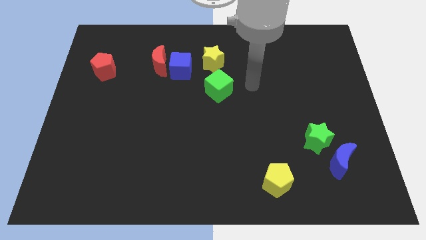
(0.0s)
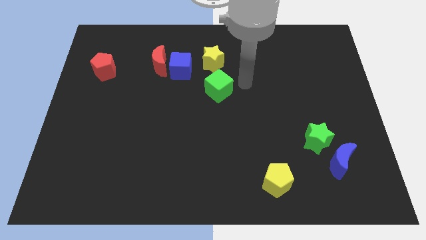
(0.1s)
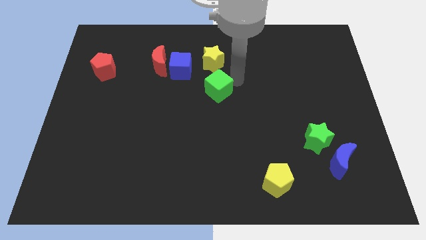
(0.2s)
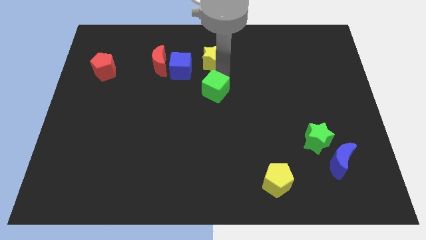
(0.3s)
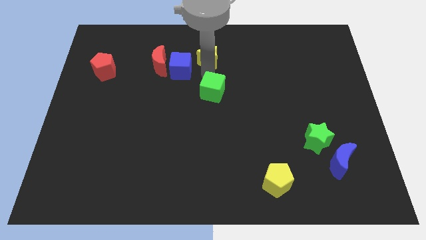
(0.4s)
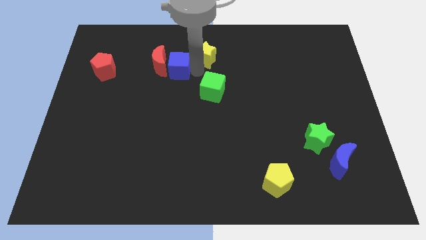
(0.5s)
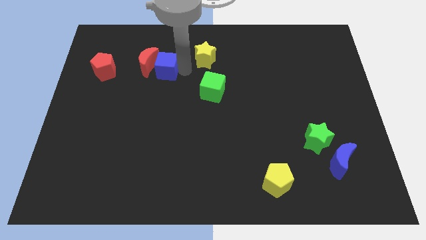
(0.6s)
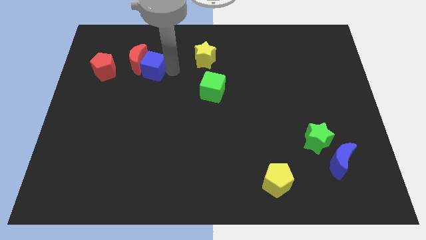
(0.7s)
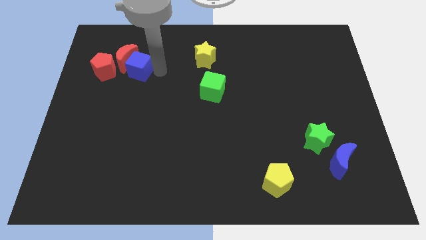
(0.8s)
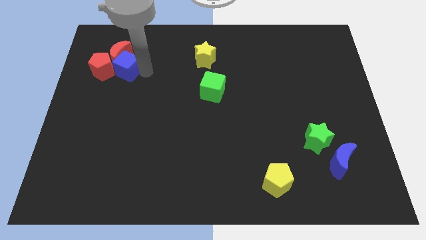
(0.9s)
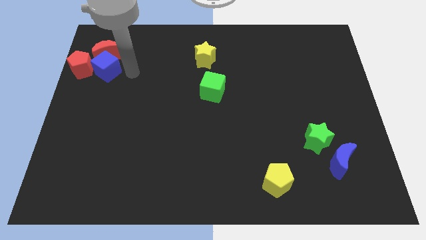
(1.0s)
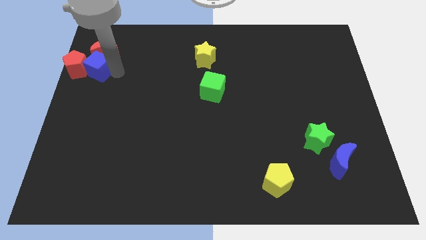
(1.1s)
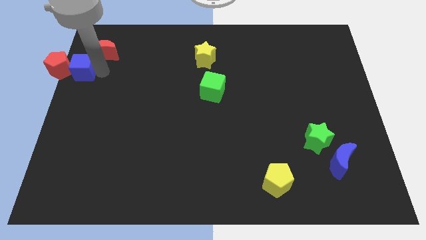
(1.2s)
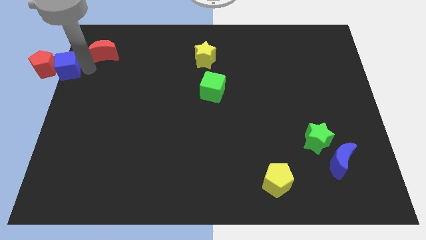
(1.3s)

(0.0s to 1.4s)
move the red moon away from the blue cube

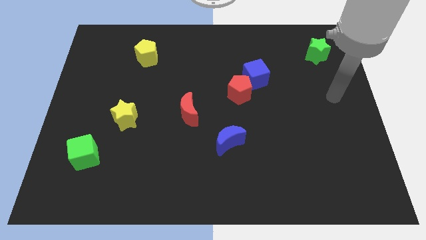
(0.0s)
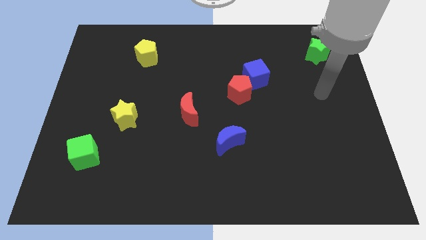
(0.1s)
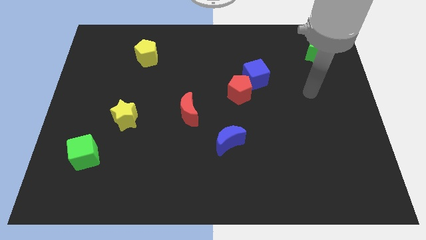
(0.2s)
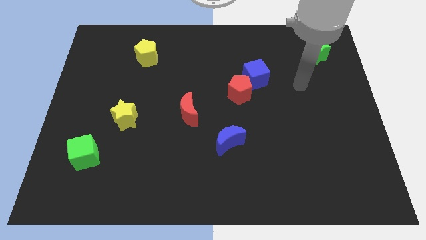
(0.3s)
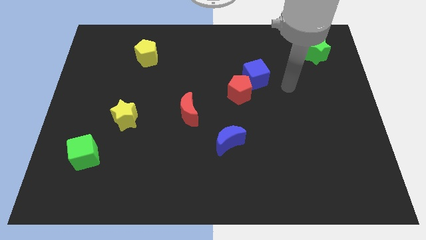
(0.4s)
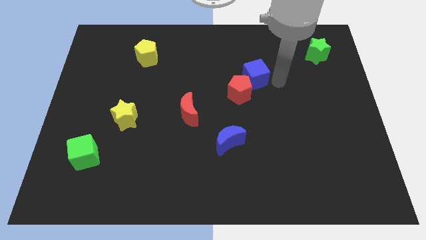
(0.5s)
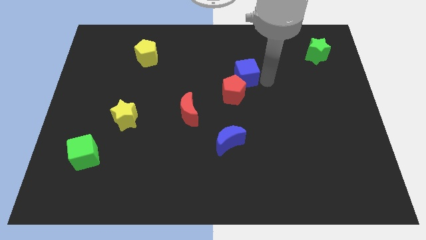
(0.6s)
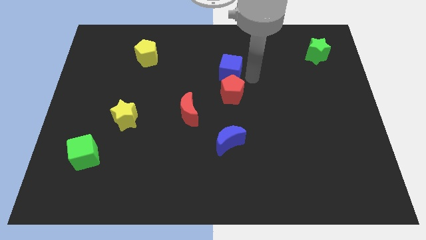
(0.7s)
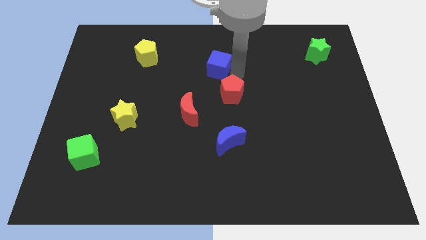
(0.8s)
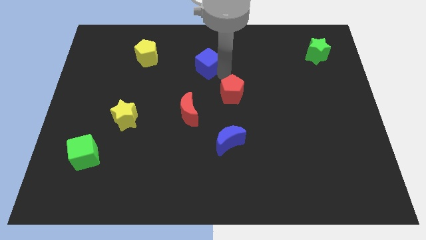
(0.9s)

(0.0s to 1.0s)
move the red pentagon away from the blue cube

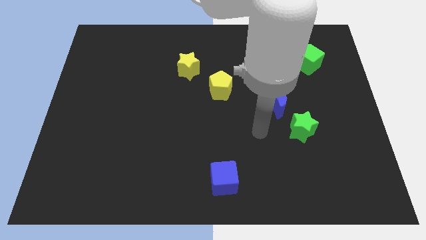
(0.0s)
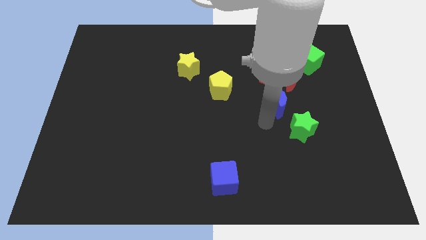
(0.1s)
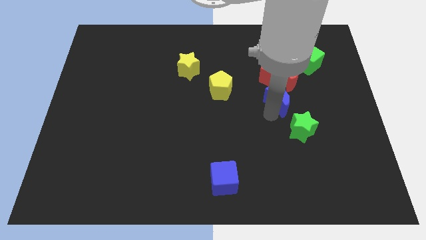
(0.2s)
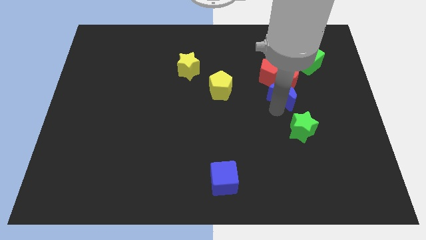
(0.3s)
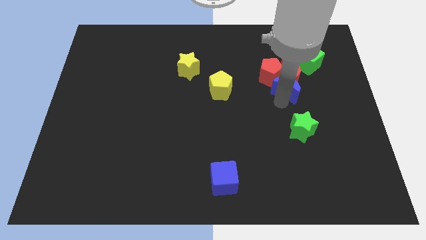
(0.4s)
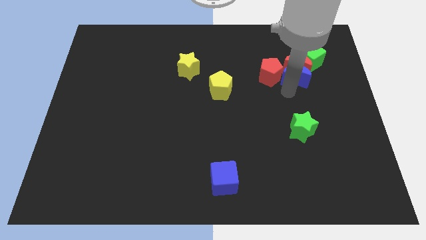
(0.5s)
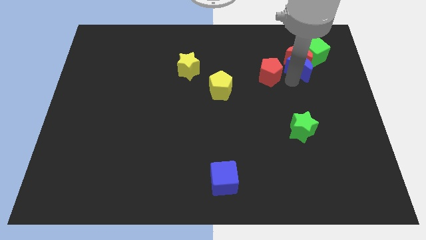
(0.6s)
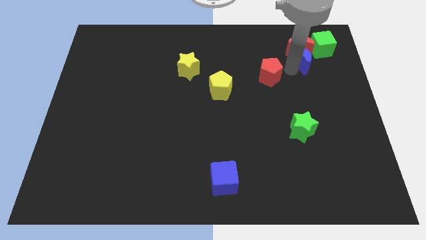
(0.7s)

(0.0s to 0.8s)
move the red pentagon away from the red moon and blue moon

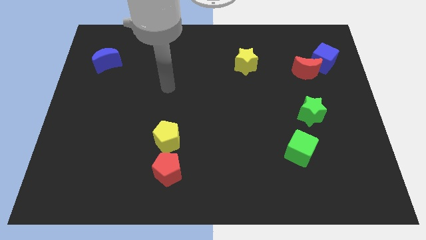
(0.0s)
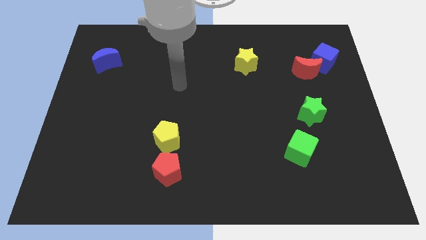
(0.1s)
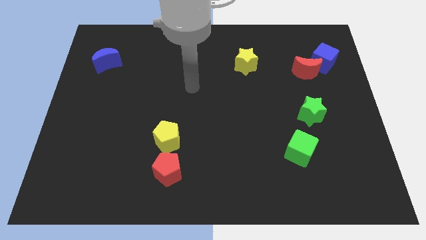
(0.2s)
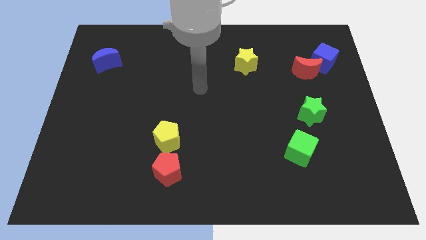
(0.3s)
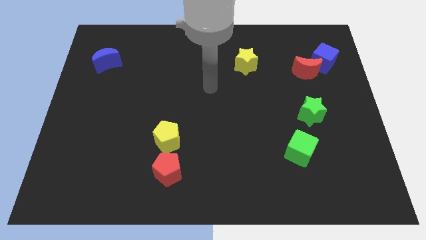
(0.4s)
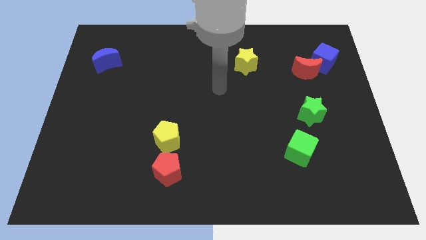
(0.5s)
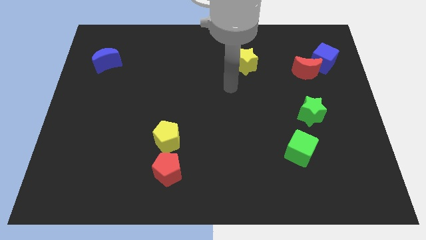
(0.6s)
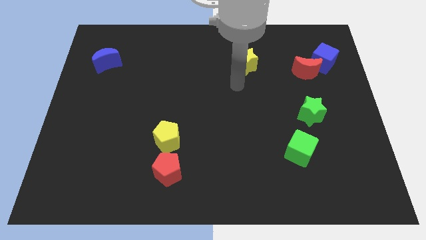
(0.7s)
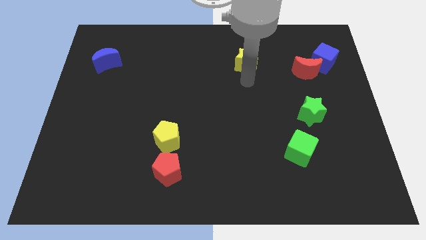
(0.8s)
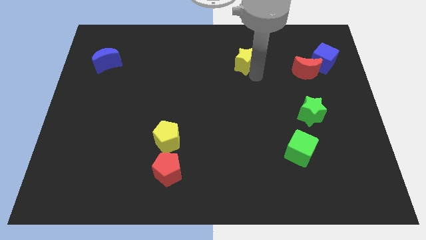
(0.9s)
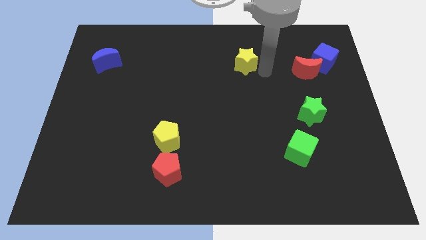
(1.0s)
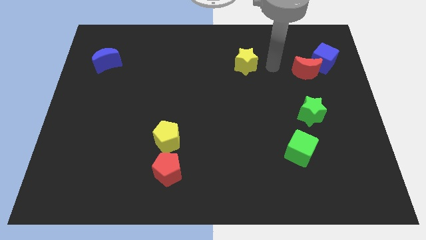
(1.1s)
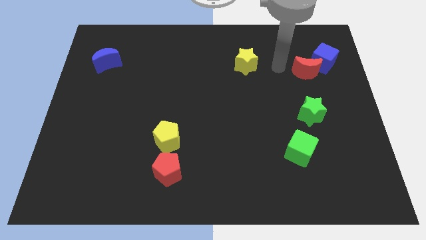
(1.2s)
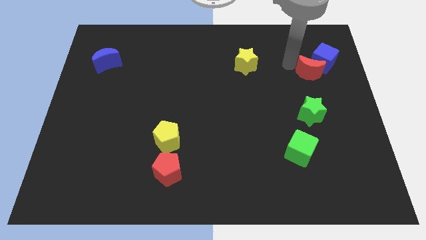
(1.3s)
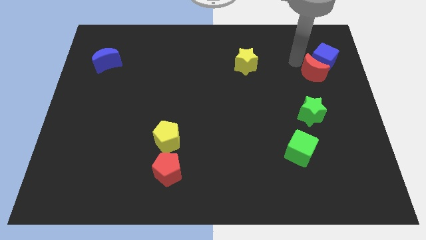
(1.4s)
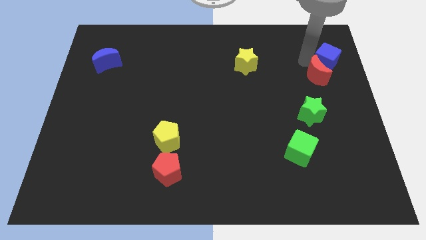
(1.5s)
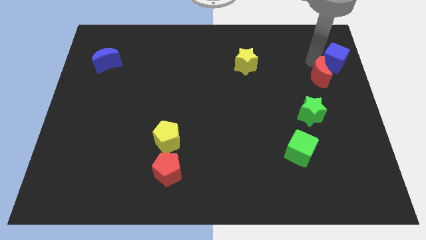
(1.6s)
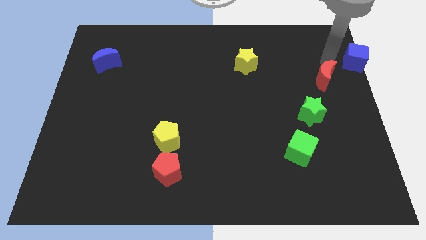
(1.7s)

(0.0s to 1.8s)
separate the red moon from the blue cube

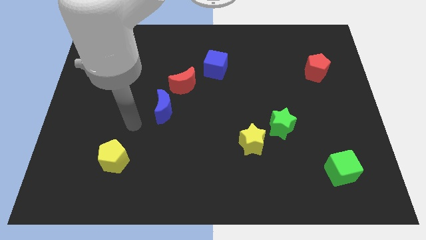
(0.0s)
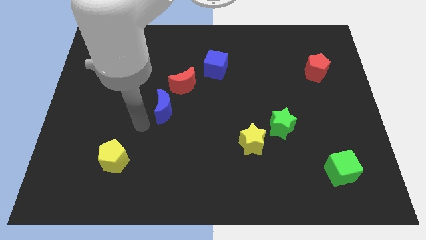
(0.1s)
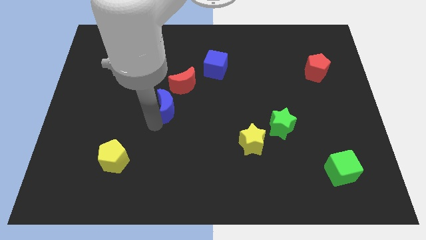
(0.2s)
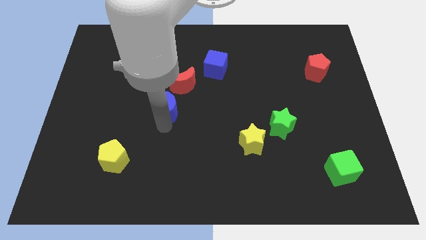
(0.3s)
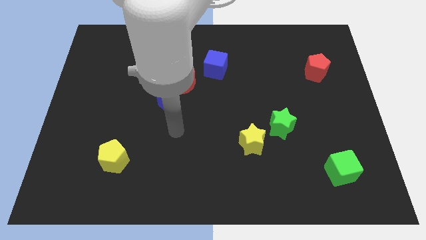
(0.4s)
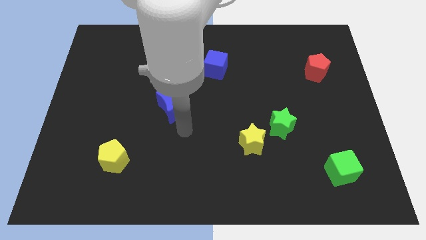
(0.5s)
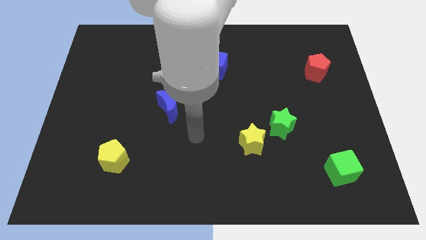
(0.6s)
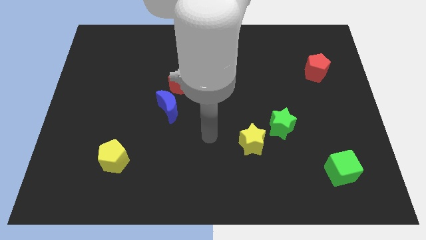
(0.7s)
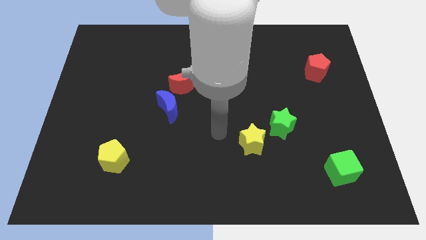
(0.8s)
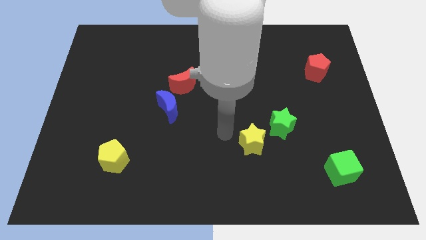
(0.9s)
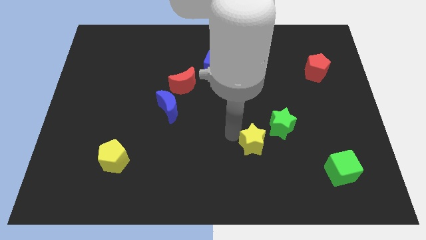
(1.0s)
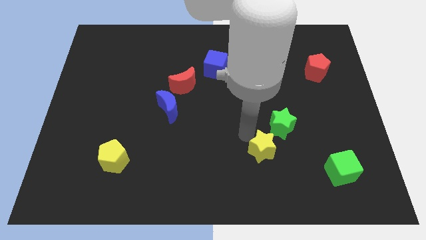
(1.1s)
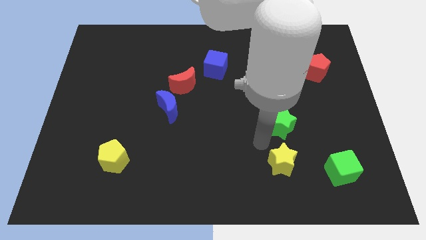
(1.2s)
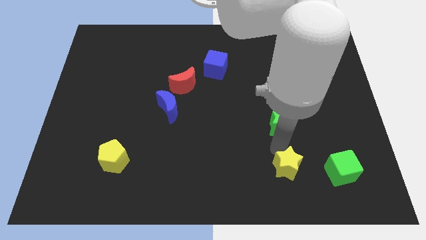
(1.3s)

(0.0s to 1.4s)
move the green star away from the yellow star

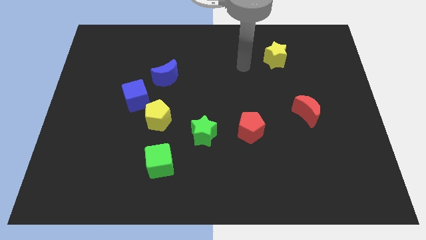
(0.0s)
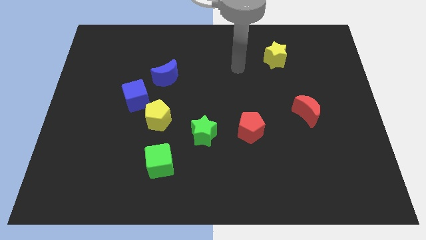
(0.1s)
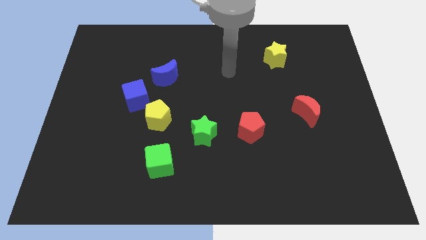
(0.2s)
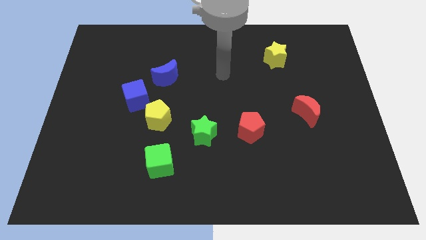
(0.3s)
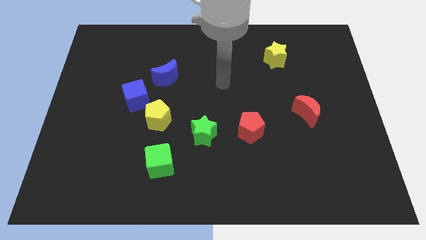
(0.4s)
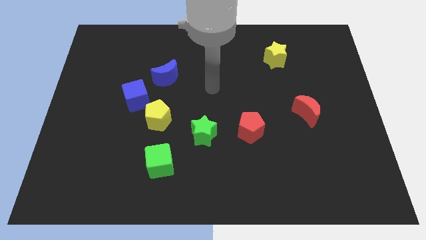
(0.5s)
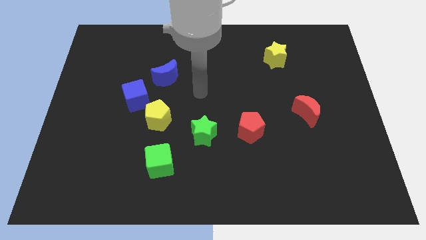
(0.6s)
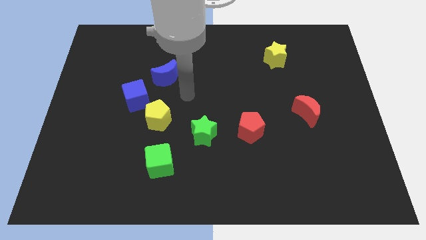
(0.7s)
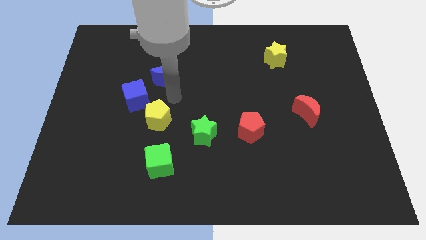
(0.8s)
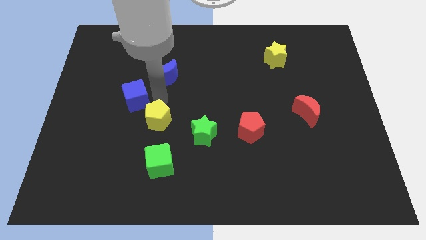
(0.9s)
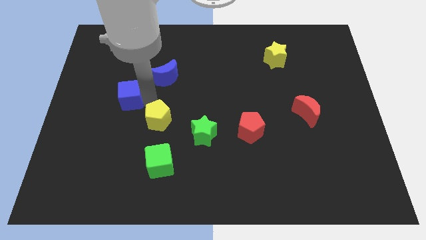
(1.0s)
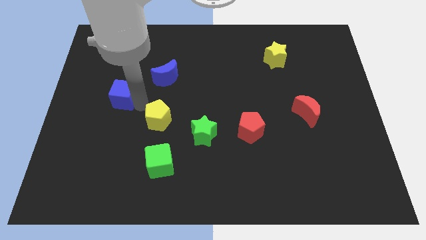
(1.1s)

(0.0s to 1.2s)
move the yellow pentagon away from the blue cube

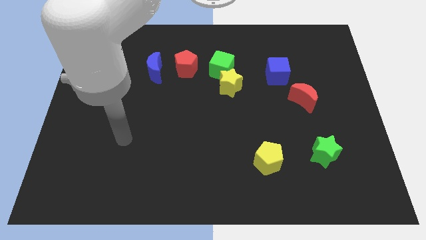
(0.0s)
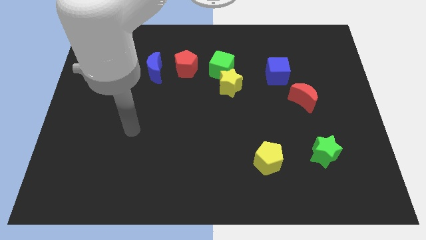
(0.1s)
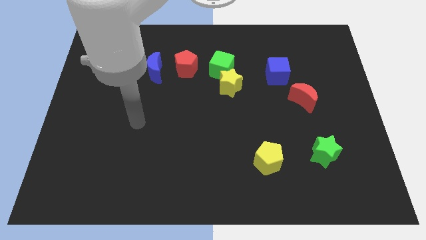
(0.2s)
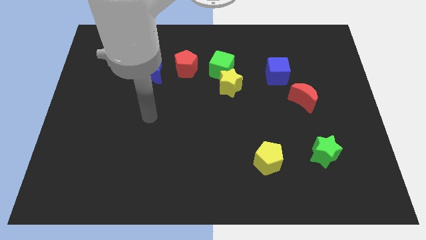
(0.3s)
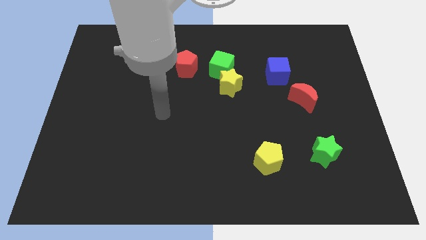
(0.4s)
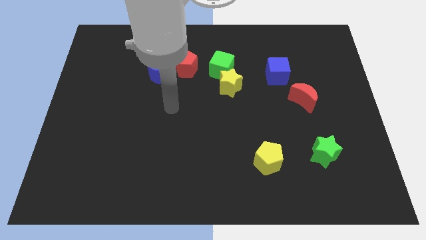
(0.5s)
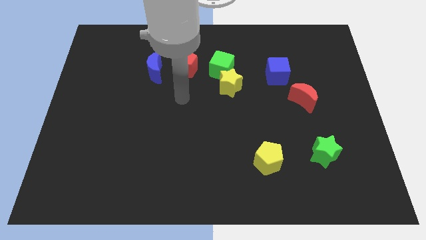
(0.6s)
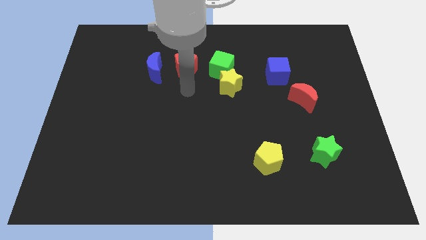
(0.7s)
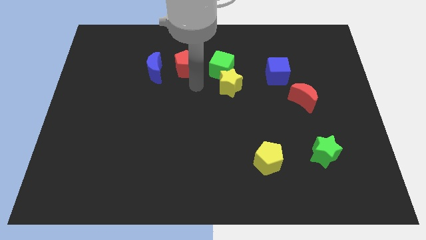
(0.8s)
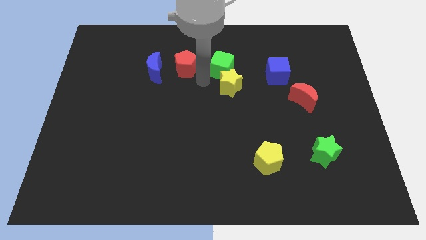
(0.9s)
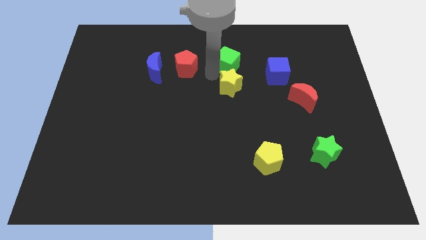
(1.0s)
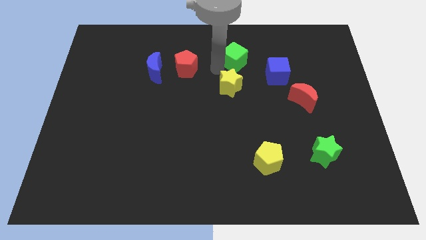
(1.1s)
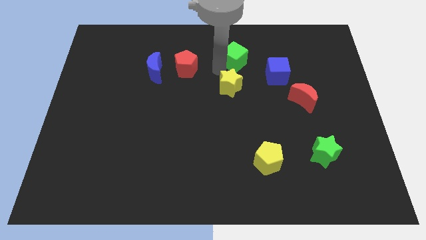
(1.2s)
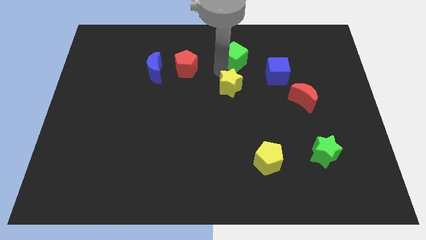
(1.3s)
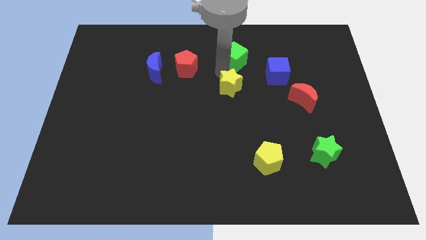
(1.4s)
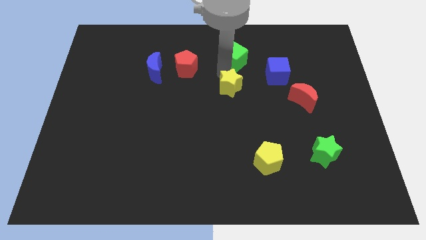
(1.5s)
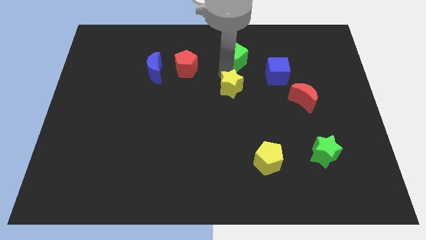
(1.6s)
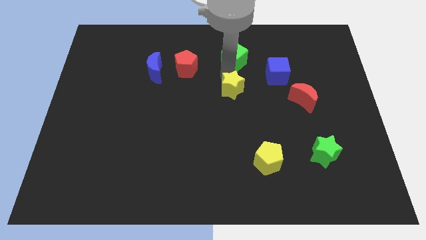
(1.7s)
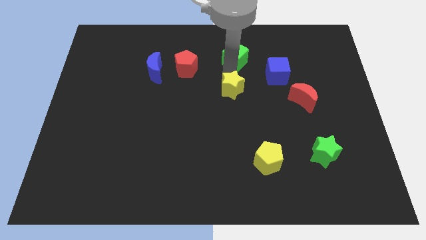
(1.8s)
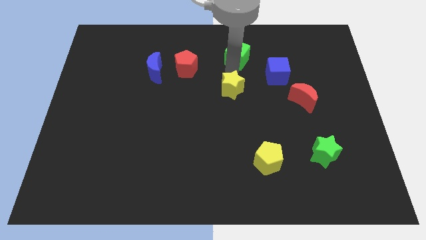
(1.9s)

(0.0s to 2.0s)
separate the yellow star from the green cube
